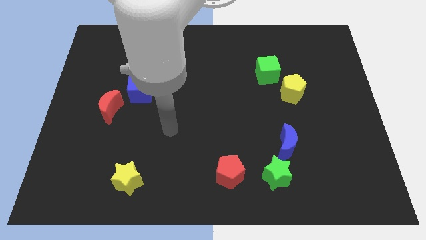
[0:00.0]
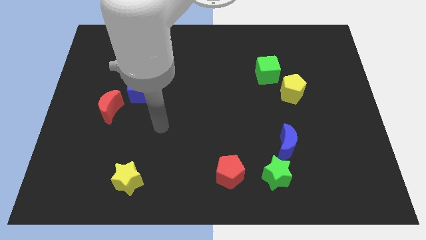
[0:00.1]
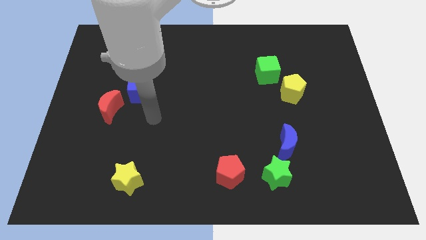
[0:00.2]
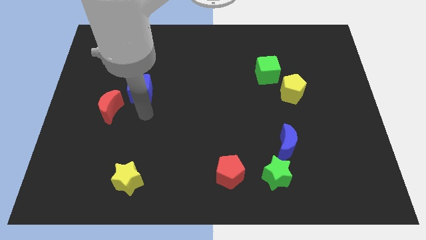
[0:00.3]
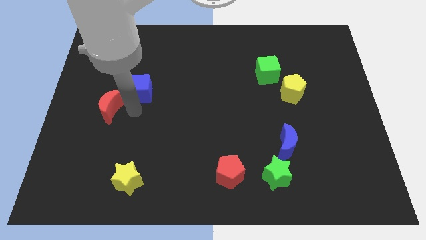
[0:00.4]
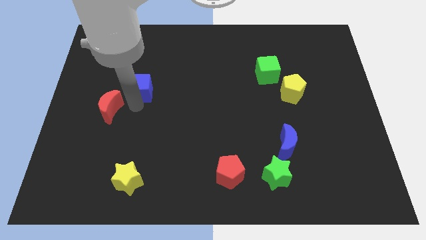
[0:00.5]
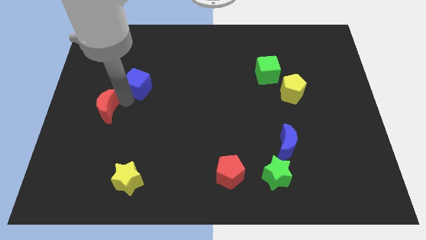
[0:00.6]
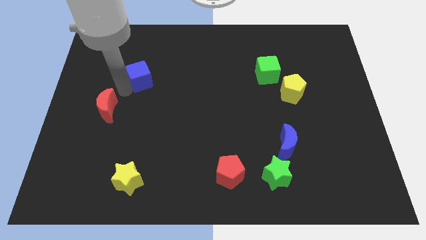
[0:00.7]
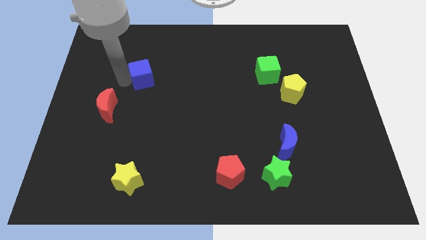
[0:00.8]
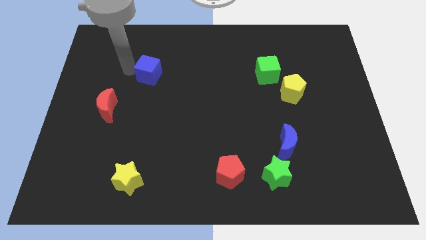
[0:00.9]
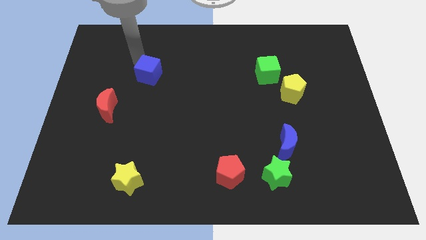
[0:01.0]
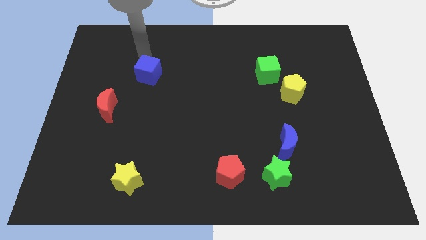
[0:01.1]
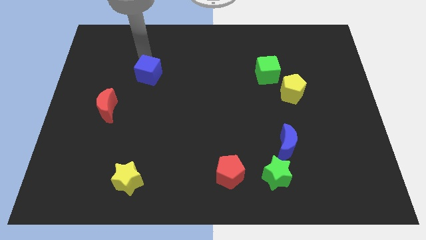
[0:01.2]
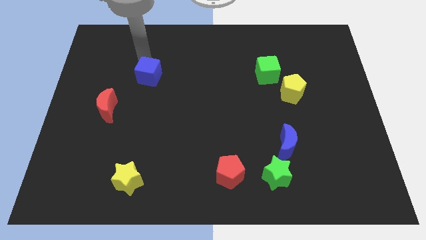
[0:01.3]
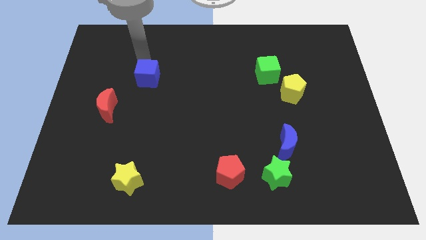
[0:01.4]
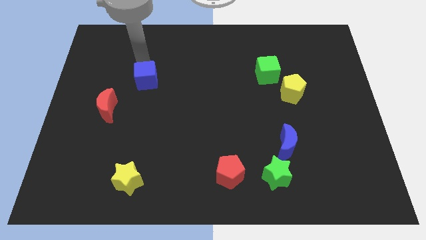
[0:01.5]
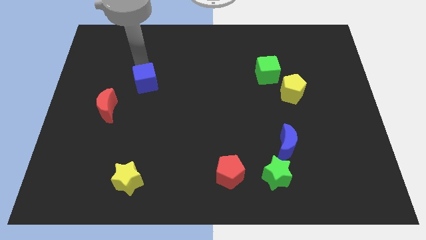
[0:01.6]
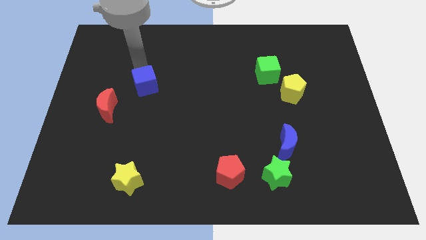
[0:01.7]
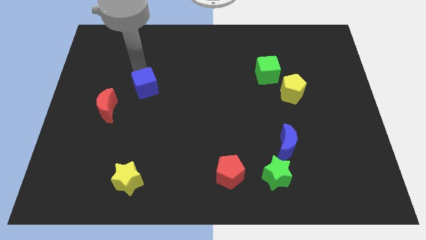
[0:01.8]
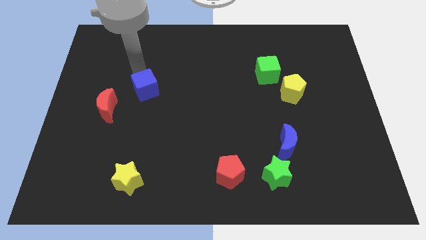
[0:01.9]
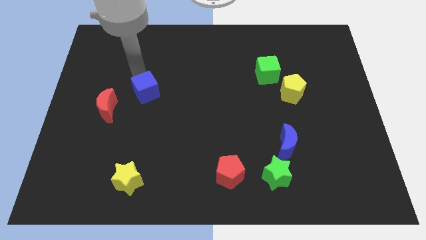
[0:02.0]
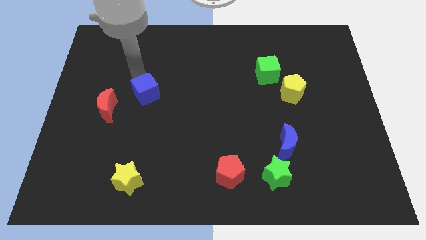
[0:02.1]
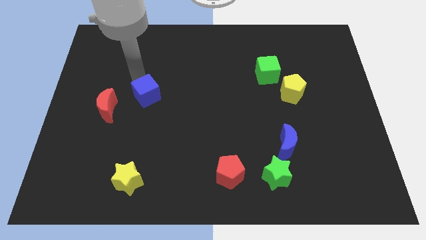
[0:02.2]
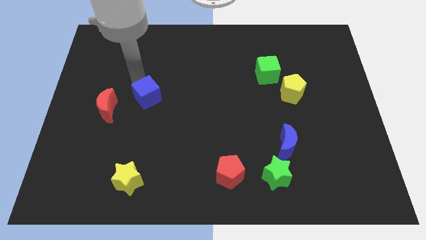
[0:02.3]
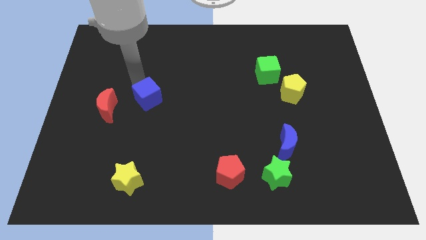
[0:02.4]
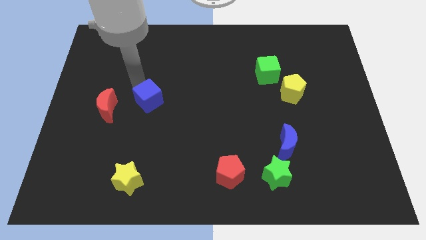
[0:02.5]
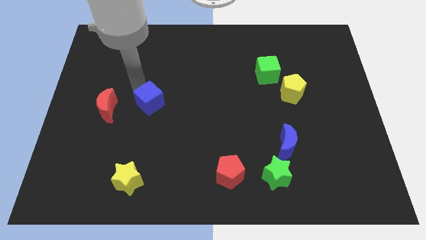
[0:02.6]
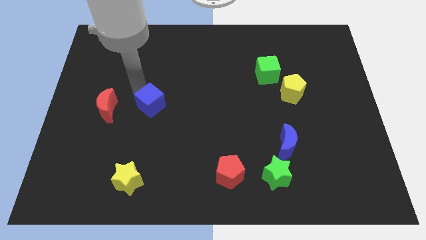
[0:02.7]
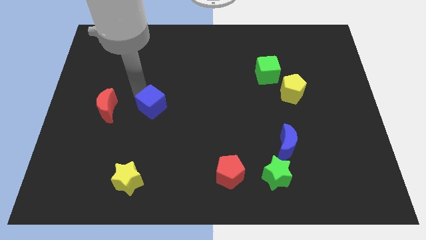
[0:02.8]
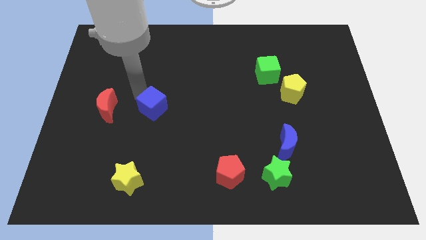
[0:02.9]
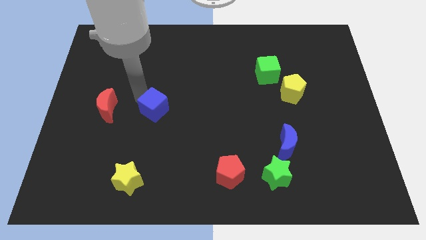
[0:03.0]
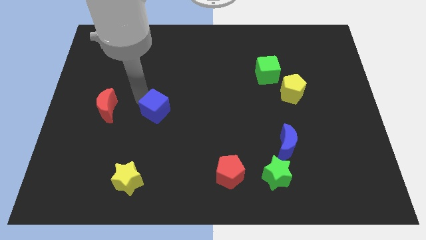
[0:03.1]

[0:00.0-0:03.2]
slide the blue cube a bit down and then right

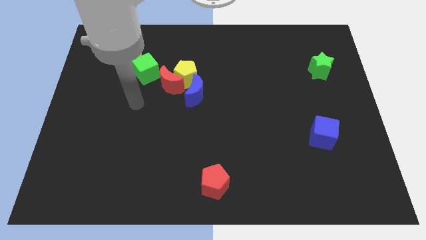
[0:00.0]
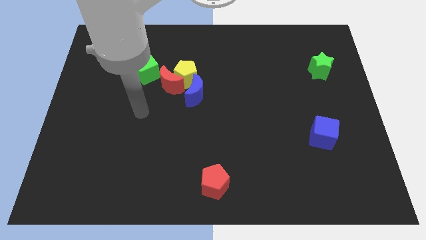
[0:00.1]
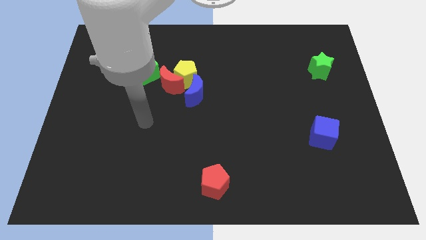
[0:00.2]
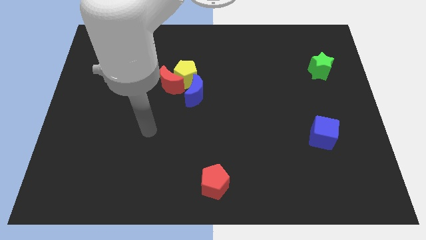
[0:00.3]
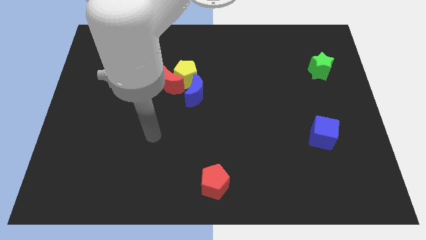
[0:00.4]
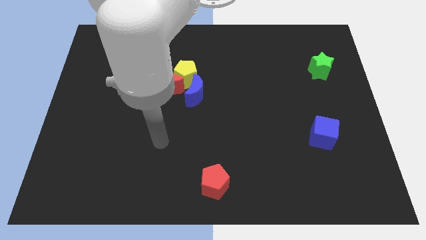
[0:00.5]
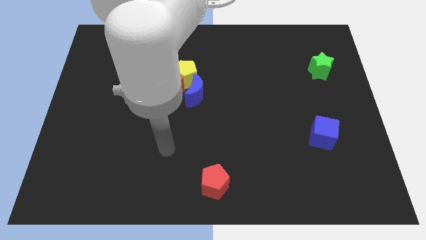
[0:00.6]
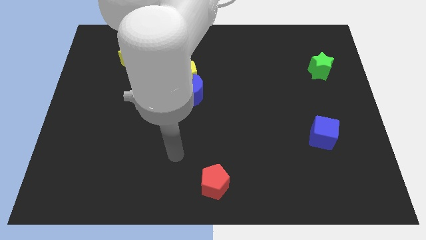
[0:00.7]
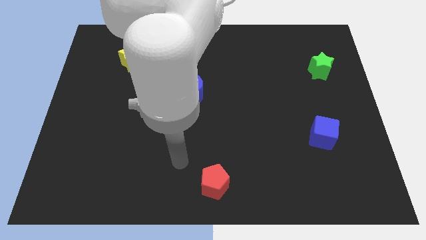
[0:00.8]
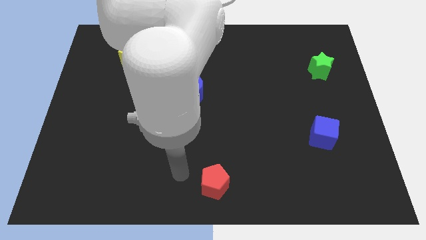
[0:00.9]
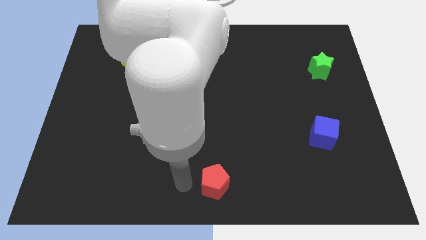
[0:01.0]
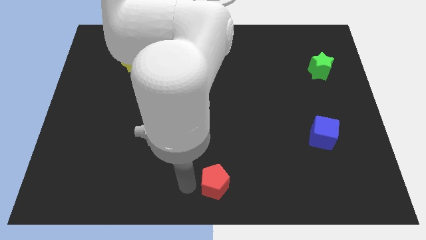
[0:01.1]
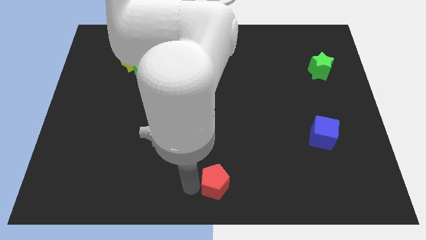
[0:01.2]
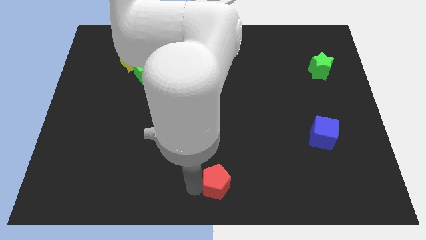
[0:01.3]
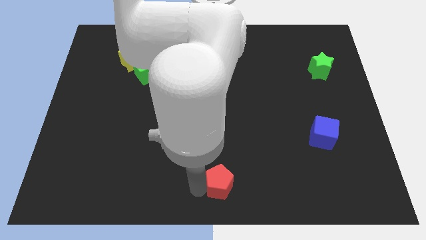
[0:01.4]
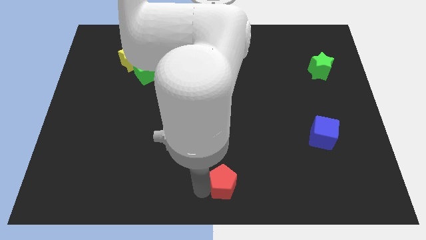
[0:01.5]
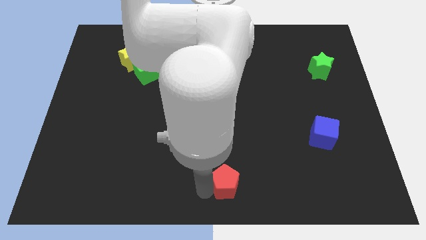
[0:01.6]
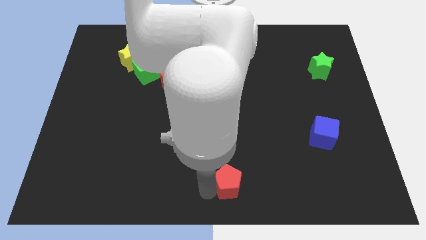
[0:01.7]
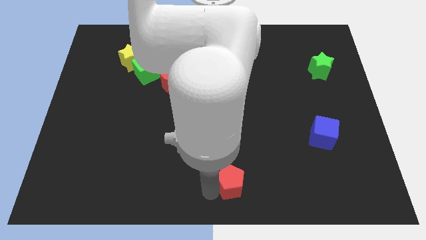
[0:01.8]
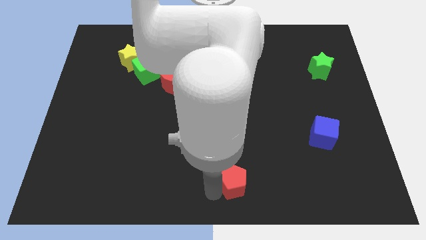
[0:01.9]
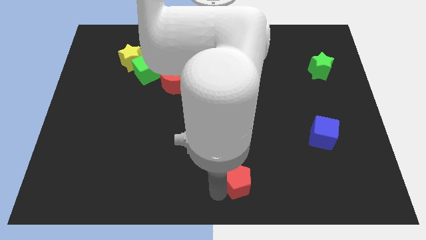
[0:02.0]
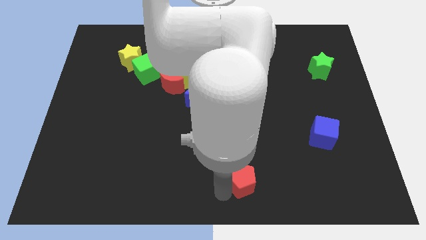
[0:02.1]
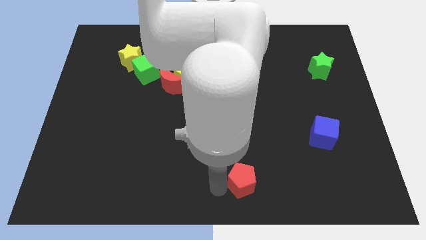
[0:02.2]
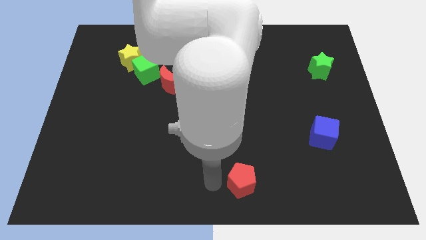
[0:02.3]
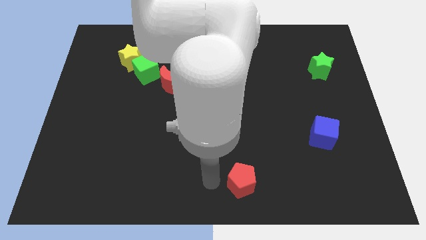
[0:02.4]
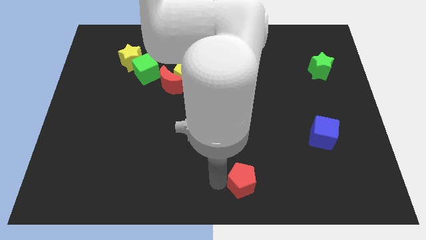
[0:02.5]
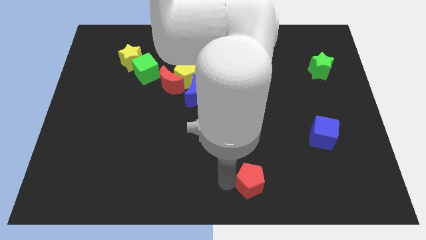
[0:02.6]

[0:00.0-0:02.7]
push the red pentagon somewhat to the right

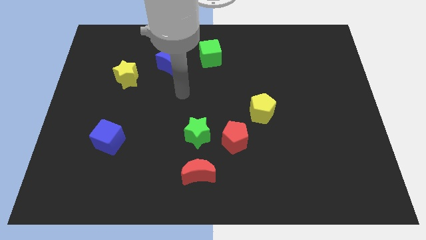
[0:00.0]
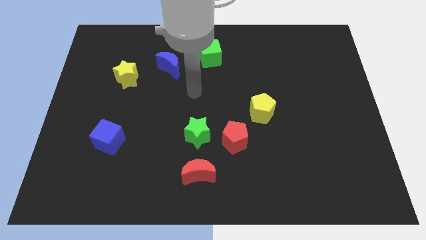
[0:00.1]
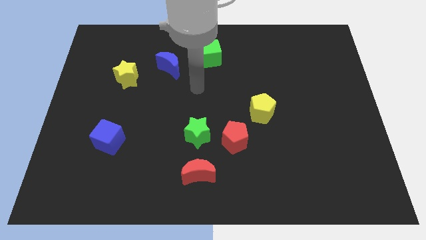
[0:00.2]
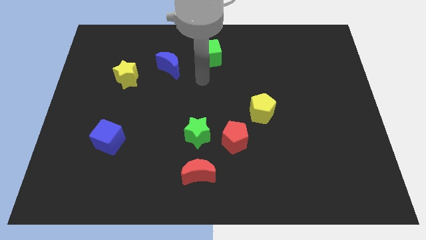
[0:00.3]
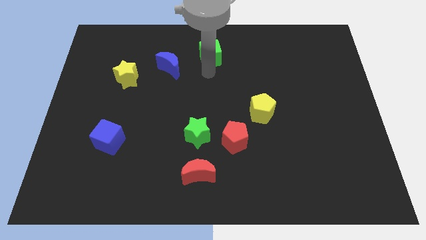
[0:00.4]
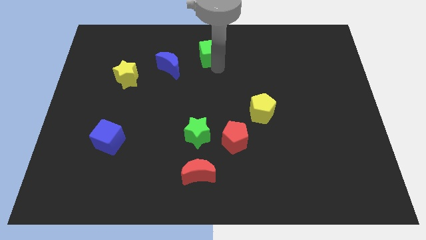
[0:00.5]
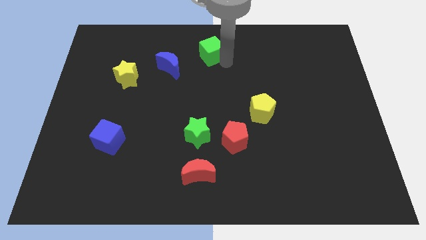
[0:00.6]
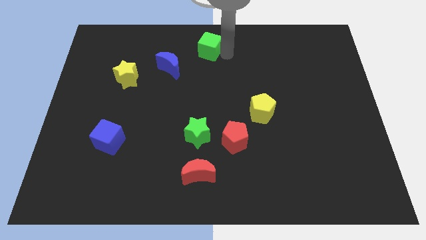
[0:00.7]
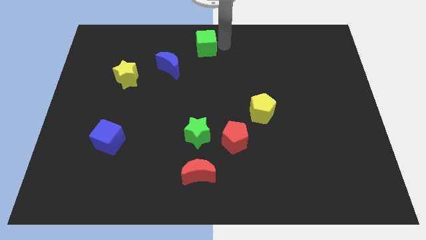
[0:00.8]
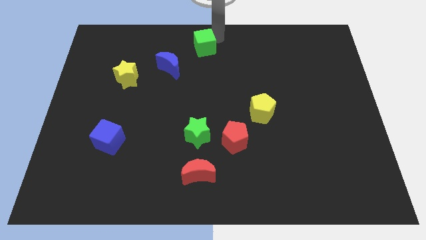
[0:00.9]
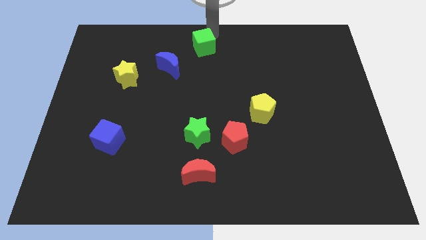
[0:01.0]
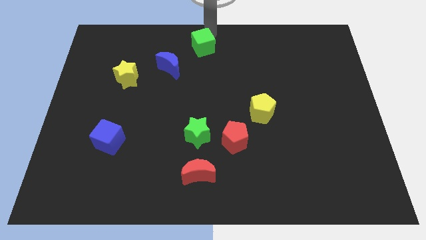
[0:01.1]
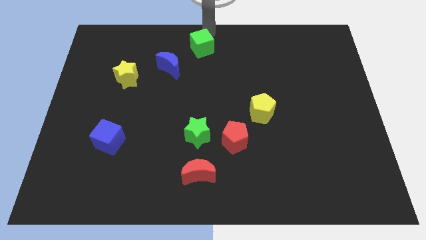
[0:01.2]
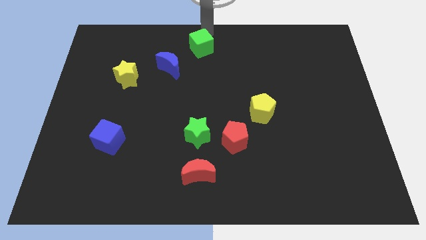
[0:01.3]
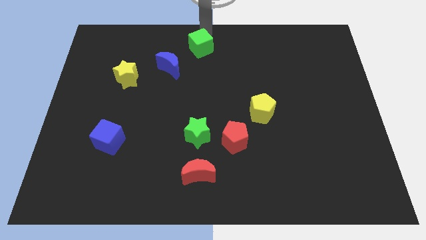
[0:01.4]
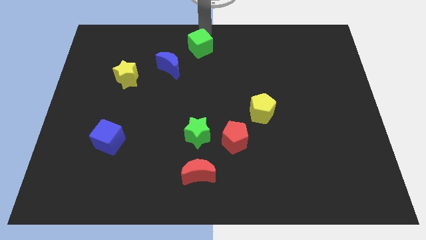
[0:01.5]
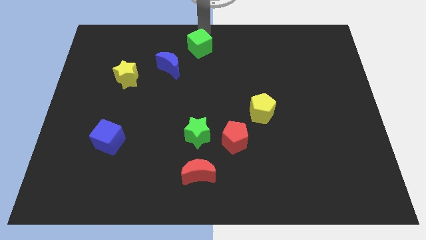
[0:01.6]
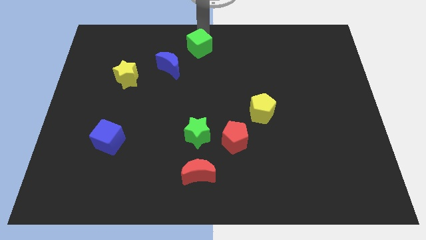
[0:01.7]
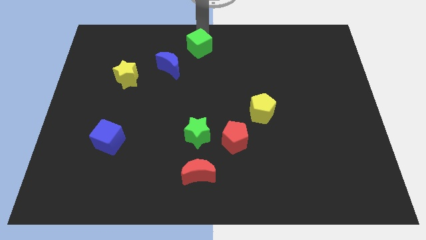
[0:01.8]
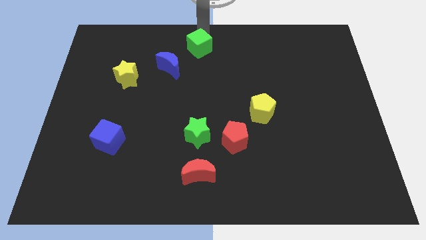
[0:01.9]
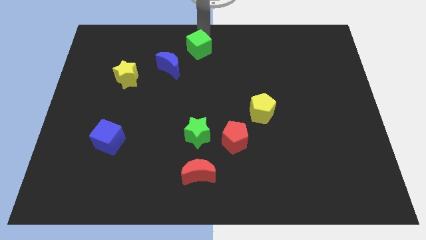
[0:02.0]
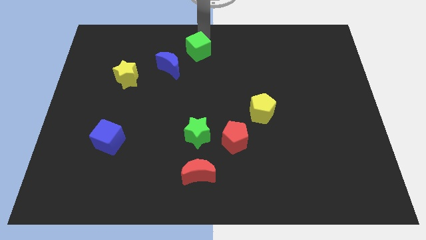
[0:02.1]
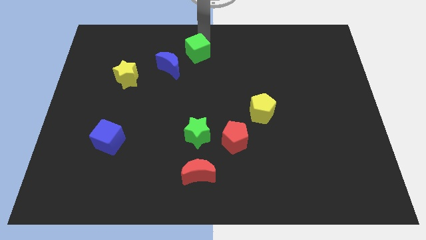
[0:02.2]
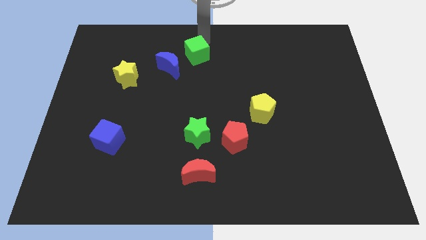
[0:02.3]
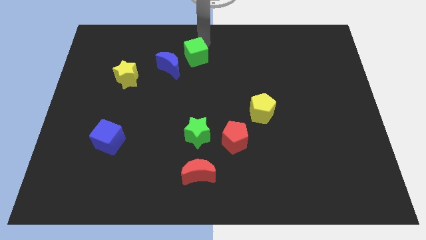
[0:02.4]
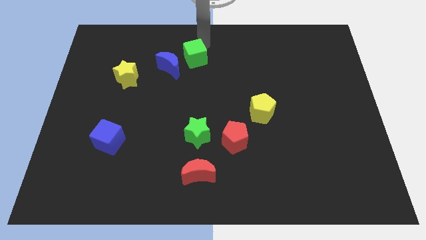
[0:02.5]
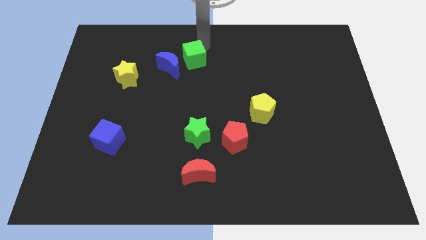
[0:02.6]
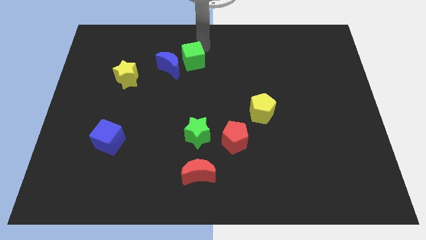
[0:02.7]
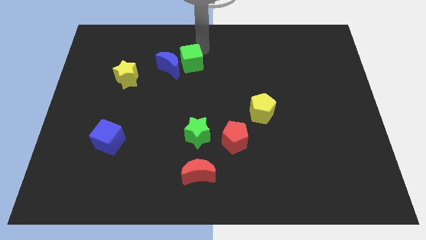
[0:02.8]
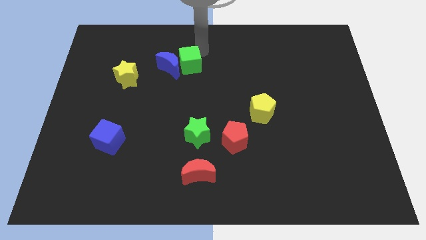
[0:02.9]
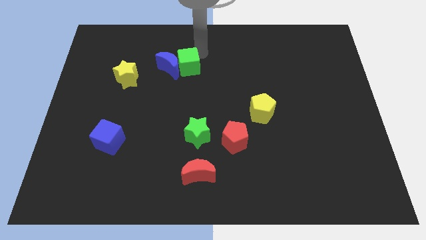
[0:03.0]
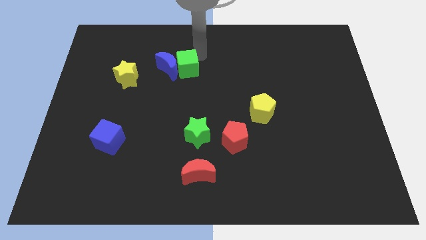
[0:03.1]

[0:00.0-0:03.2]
slightly move the green cube diagonally down and left
